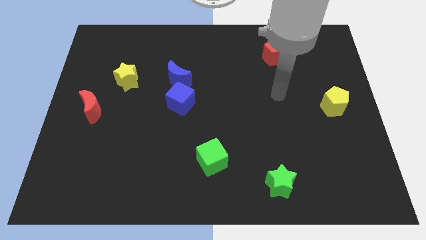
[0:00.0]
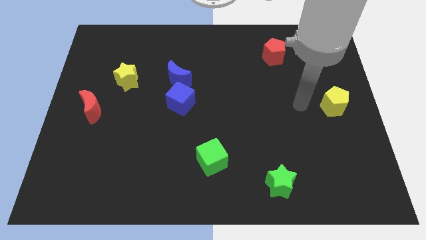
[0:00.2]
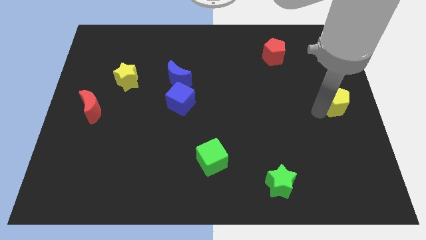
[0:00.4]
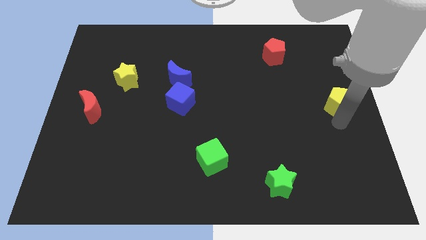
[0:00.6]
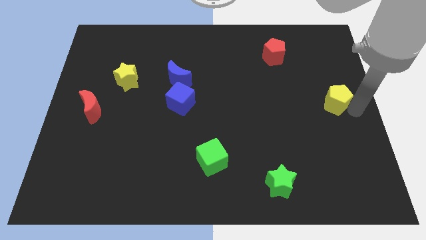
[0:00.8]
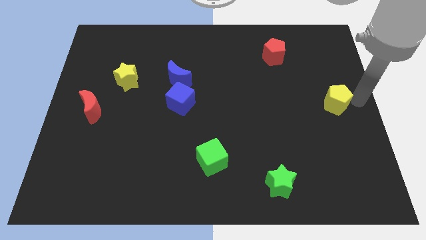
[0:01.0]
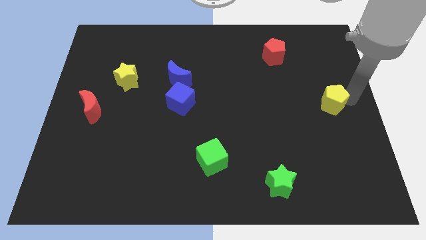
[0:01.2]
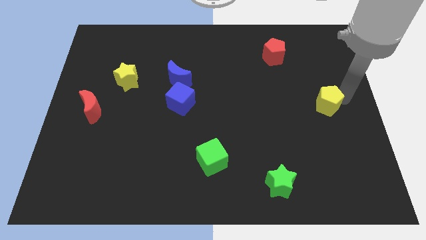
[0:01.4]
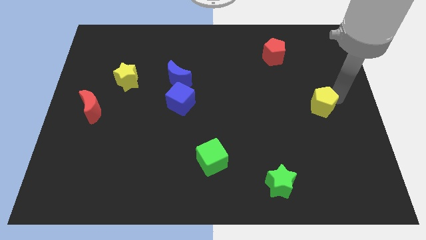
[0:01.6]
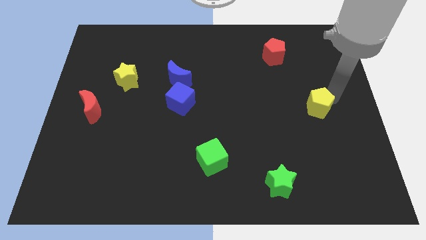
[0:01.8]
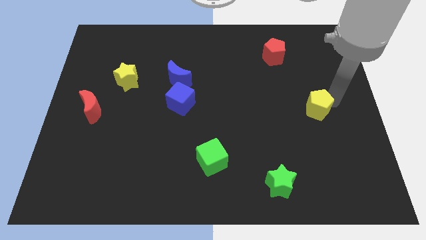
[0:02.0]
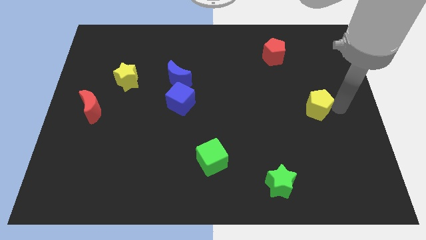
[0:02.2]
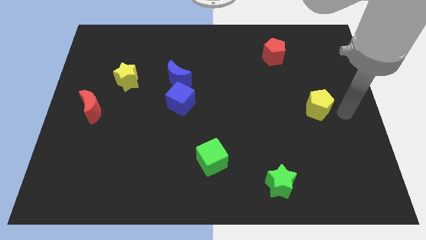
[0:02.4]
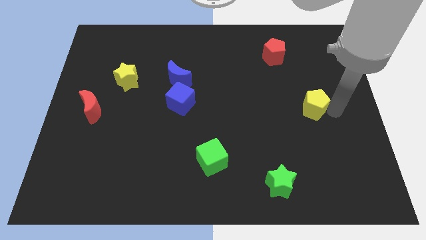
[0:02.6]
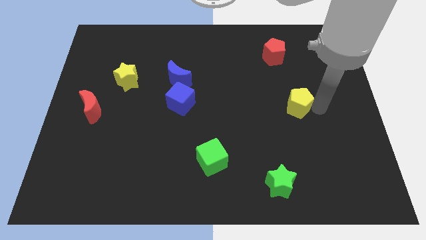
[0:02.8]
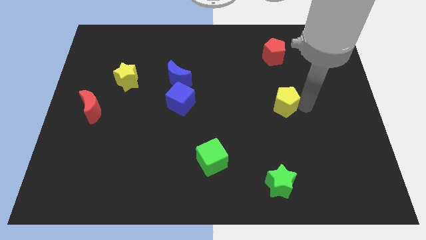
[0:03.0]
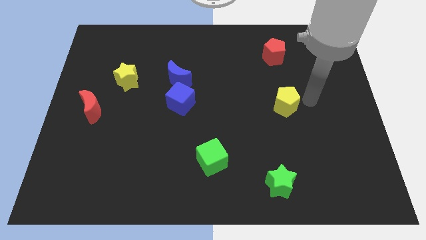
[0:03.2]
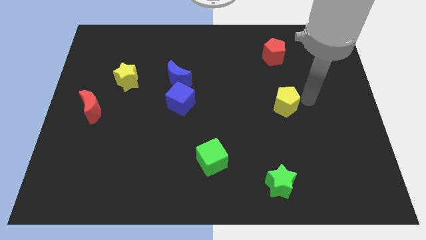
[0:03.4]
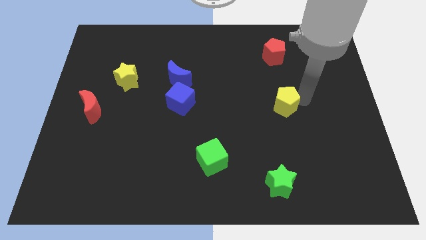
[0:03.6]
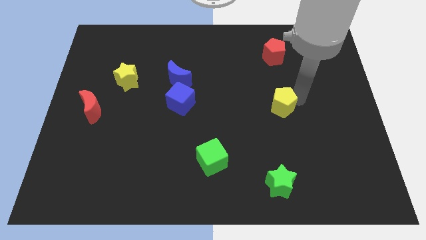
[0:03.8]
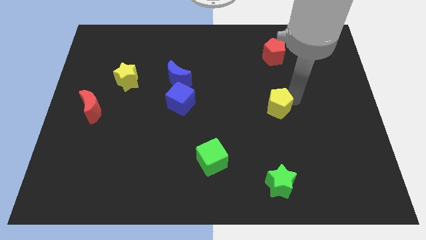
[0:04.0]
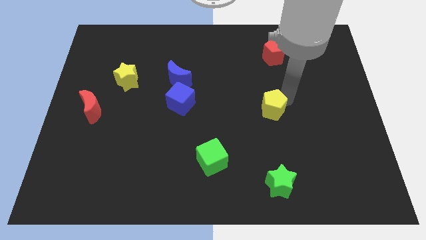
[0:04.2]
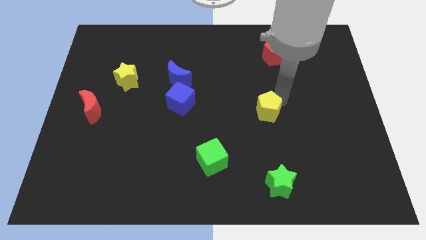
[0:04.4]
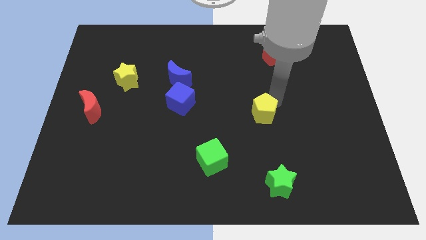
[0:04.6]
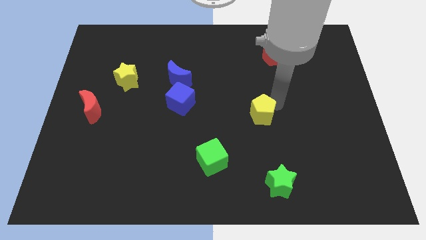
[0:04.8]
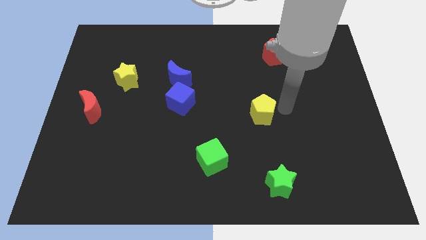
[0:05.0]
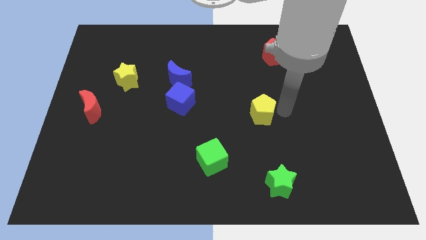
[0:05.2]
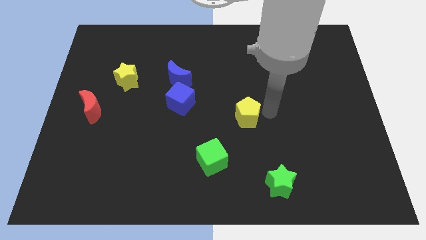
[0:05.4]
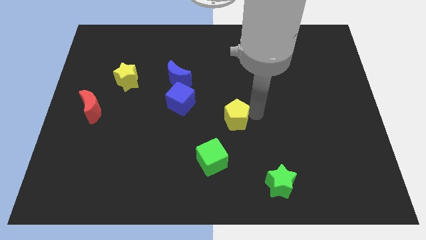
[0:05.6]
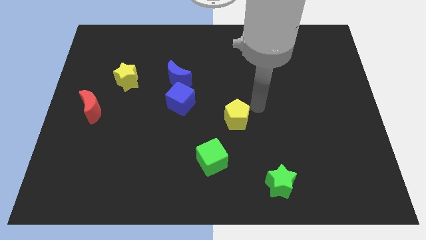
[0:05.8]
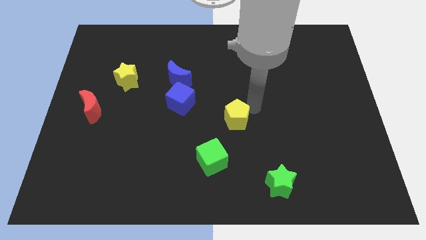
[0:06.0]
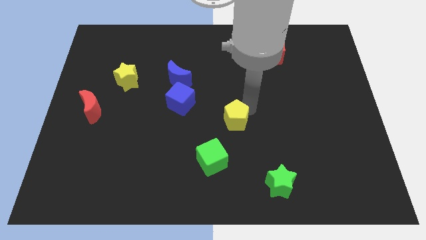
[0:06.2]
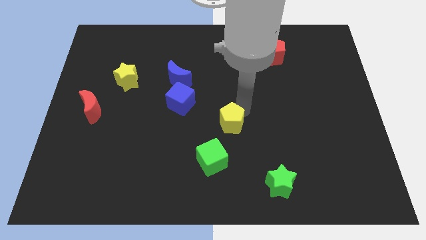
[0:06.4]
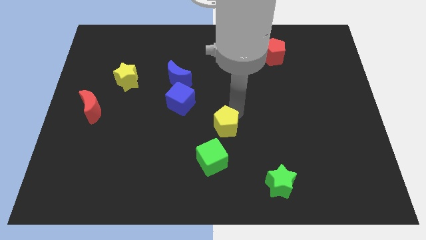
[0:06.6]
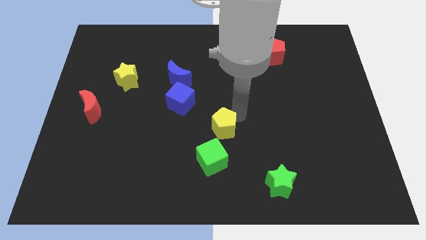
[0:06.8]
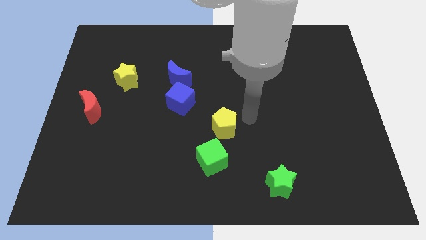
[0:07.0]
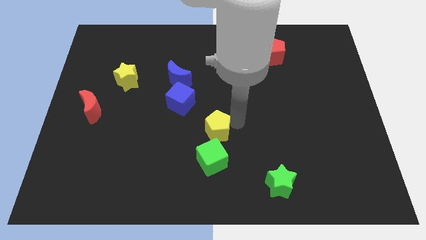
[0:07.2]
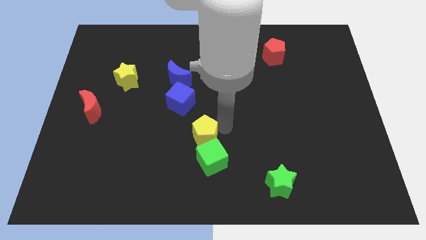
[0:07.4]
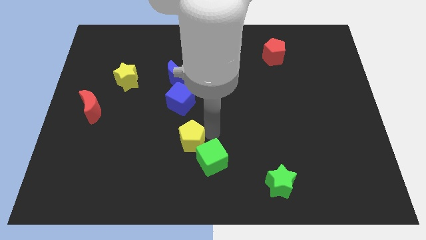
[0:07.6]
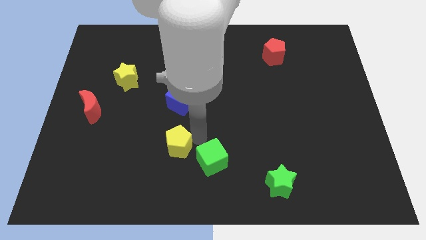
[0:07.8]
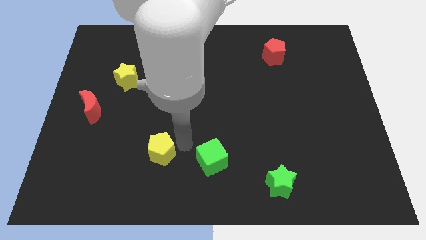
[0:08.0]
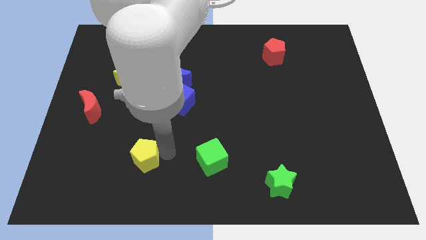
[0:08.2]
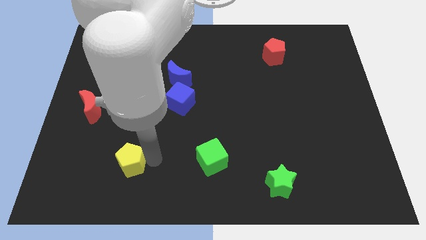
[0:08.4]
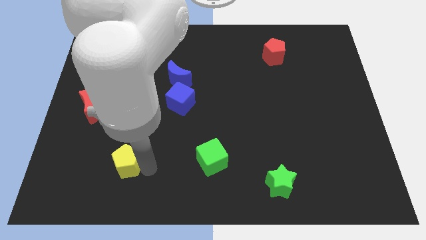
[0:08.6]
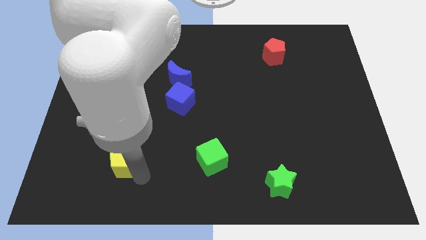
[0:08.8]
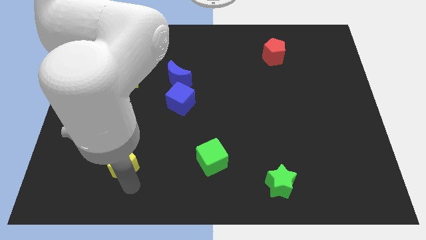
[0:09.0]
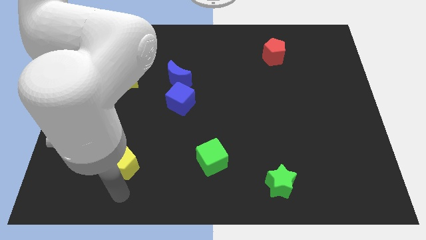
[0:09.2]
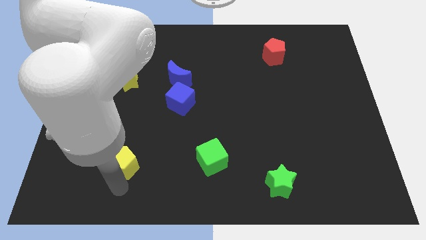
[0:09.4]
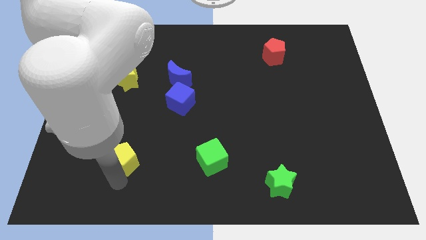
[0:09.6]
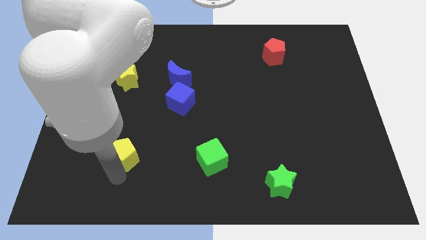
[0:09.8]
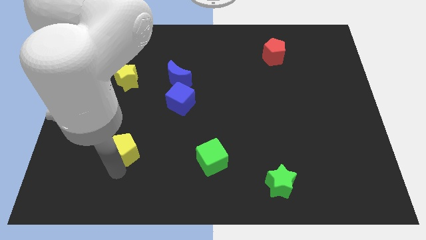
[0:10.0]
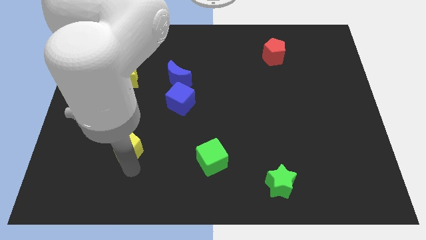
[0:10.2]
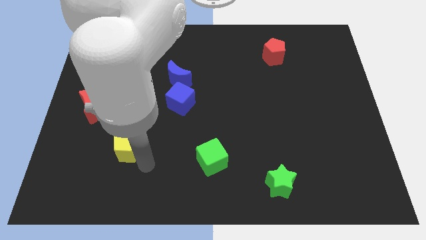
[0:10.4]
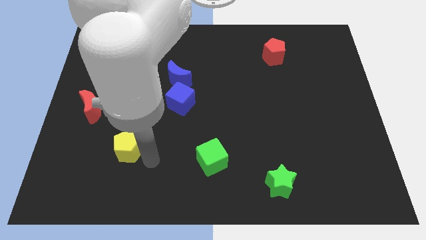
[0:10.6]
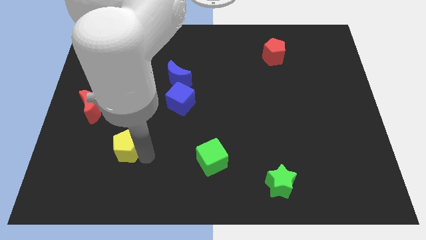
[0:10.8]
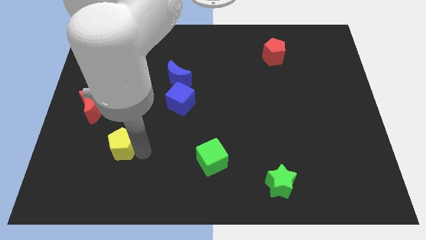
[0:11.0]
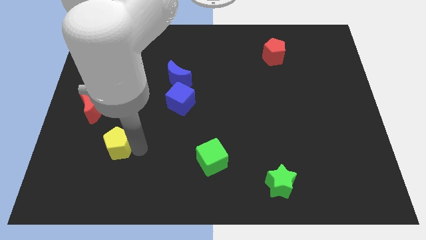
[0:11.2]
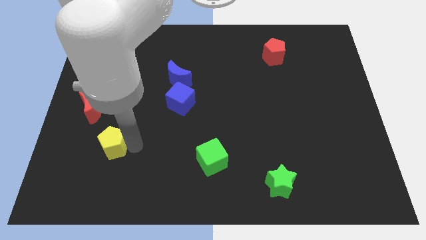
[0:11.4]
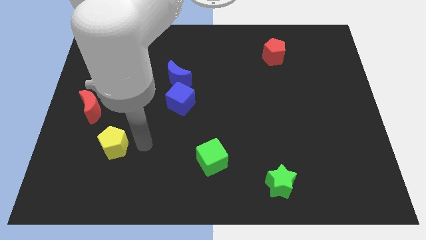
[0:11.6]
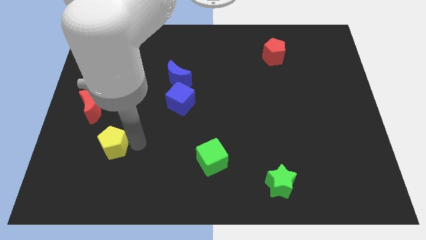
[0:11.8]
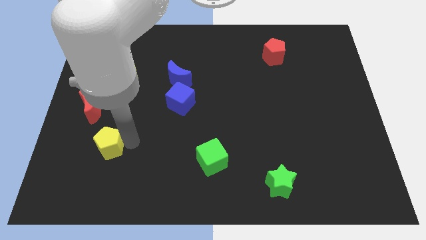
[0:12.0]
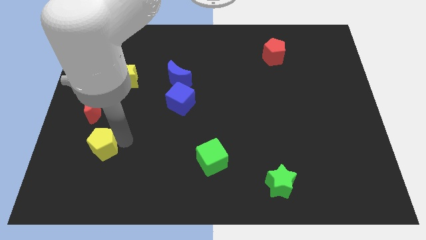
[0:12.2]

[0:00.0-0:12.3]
move the yellow pentagon to the bottom side of the red moon

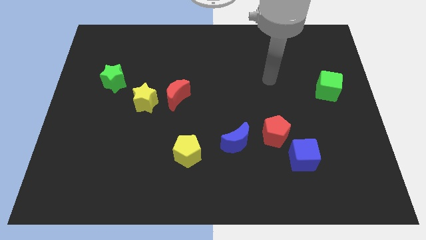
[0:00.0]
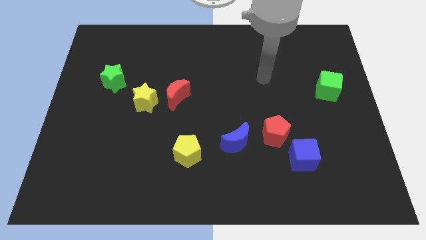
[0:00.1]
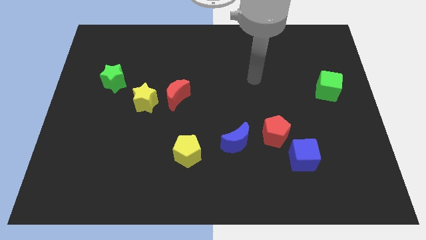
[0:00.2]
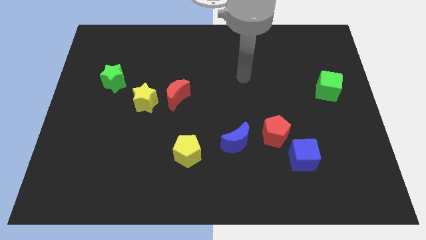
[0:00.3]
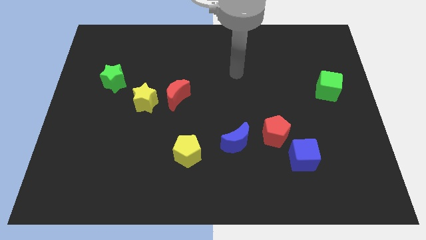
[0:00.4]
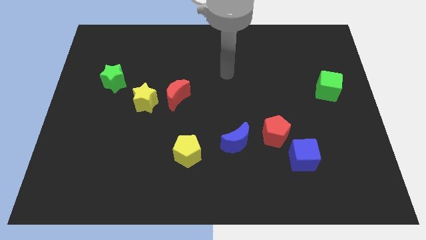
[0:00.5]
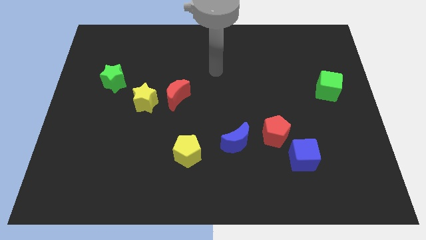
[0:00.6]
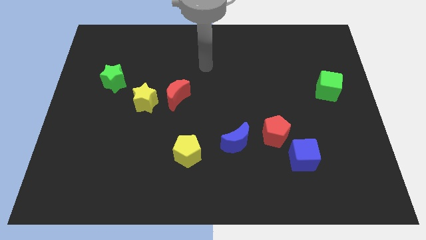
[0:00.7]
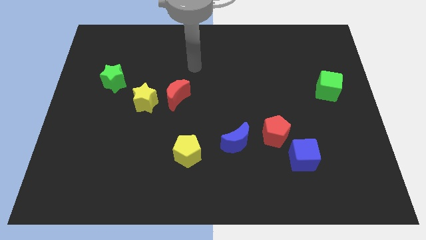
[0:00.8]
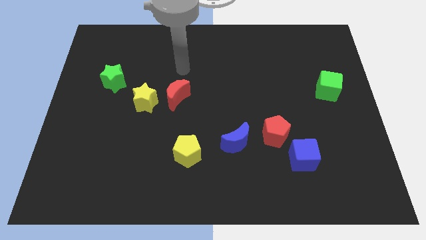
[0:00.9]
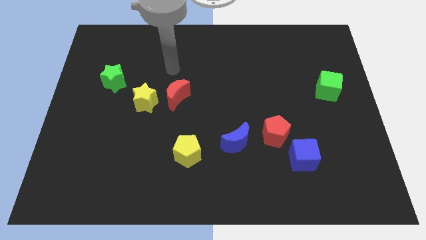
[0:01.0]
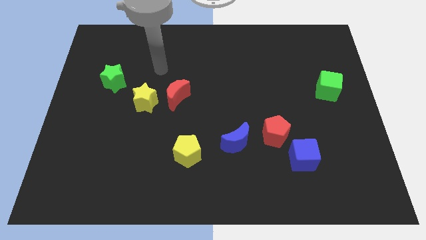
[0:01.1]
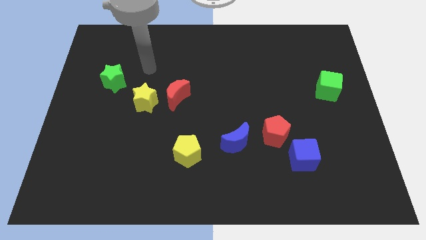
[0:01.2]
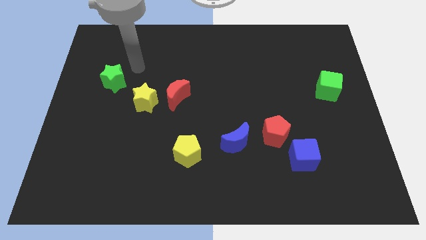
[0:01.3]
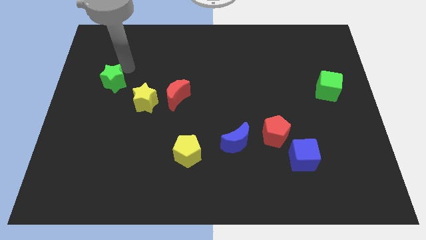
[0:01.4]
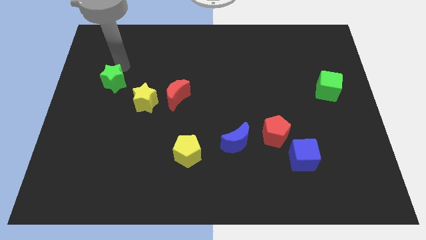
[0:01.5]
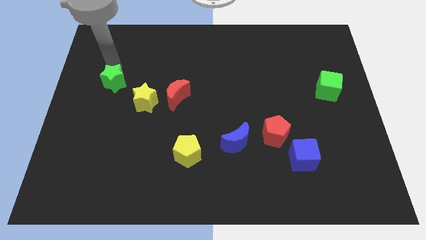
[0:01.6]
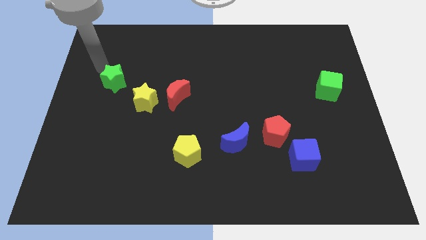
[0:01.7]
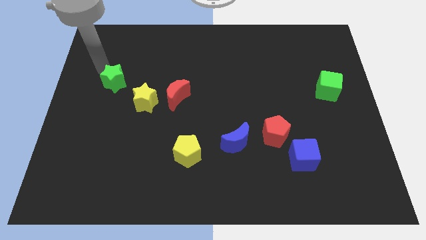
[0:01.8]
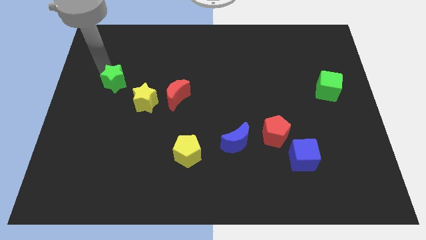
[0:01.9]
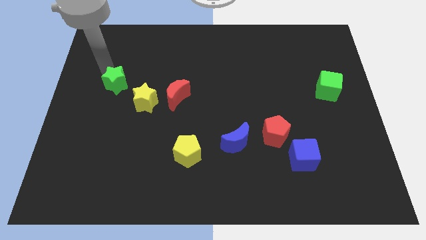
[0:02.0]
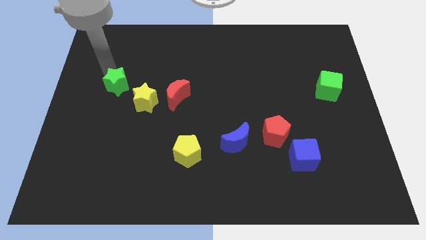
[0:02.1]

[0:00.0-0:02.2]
put the green star left of the red moon
